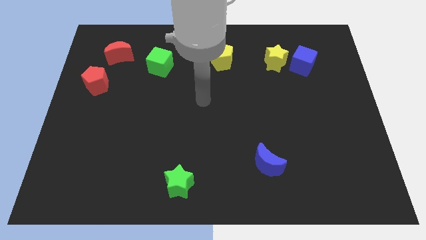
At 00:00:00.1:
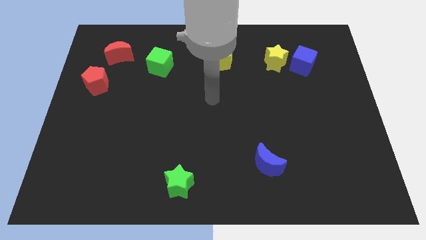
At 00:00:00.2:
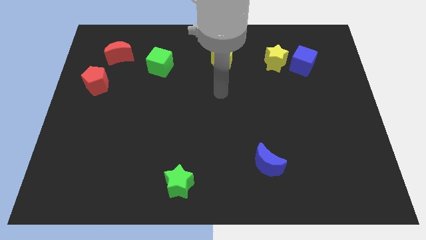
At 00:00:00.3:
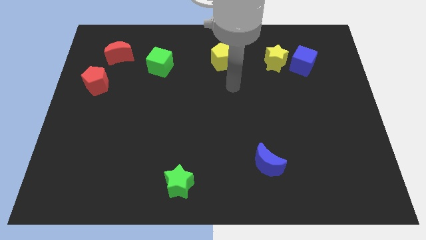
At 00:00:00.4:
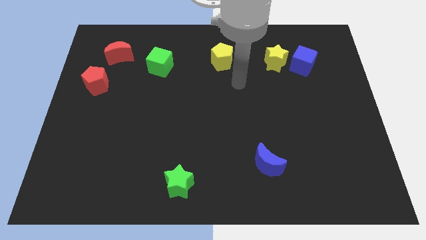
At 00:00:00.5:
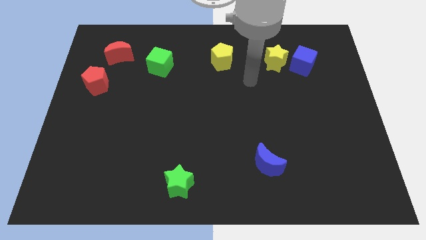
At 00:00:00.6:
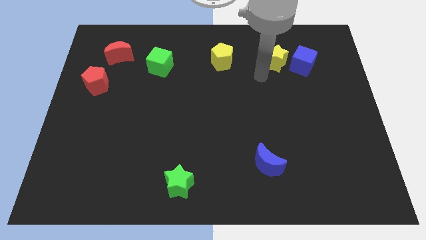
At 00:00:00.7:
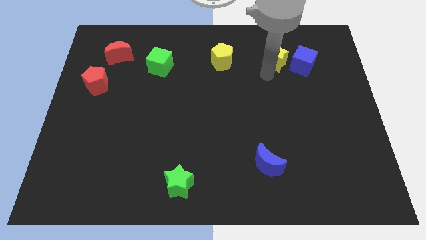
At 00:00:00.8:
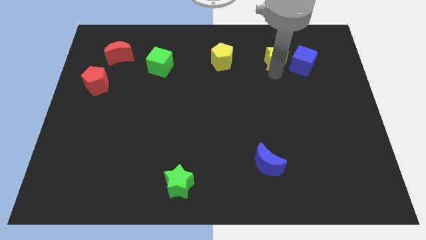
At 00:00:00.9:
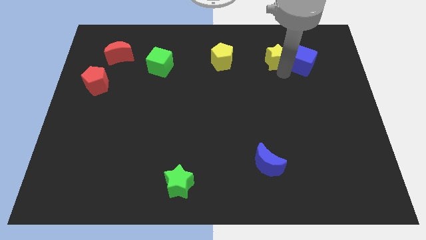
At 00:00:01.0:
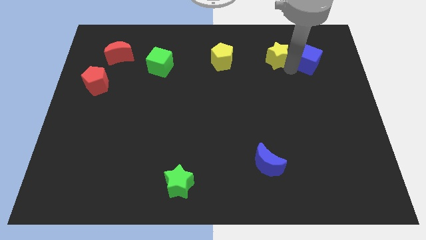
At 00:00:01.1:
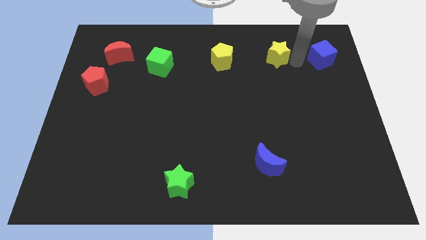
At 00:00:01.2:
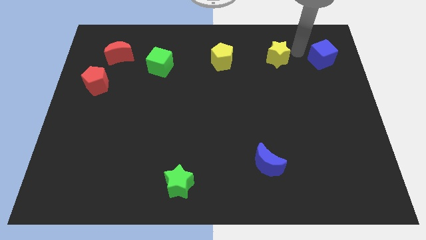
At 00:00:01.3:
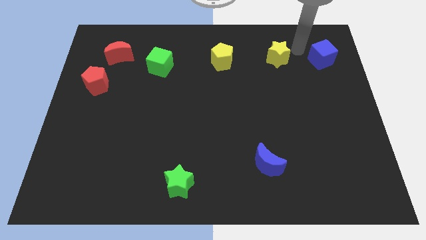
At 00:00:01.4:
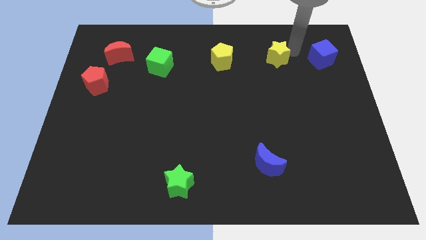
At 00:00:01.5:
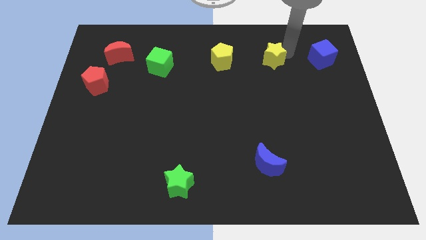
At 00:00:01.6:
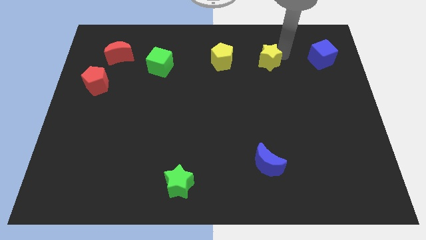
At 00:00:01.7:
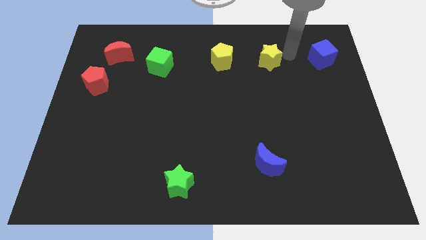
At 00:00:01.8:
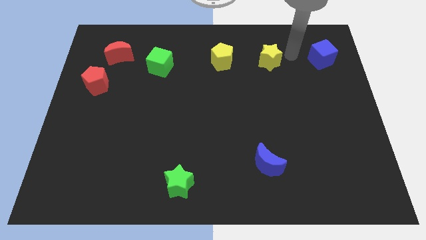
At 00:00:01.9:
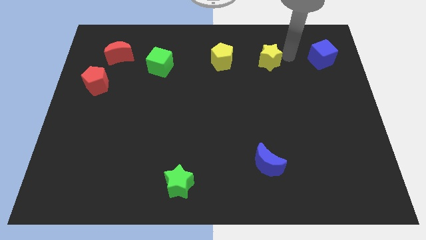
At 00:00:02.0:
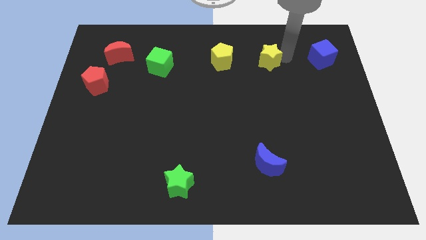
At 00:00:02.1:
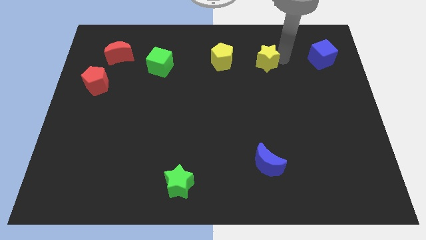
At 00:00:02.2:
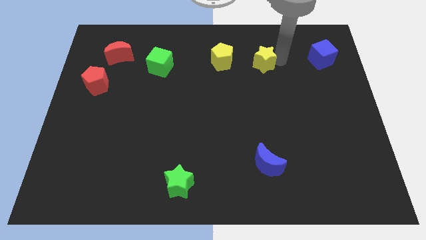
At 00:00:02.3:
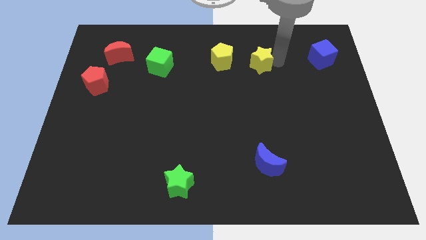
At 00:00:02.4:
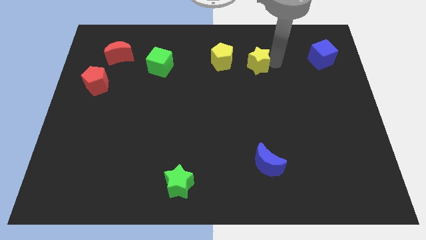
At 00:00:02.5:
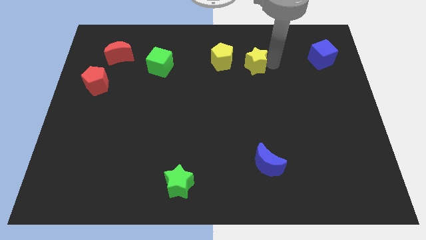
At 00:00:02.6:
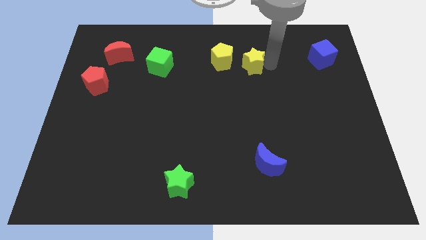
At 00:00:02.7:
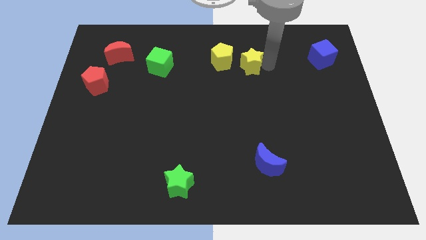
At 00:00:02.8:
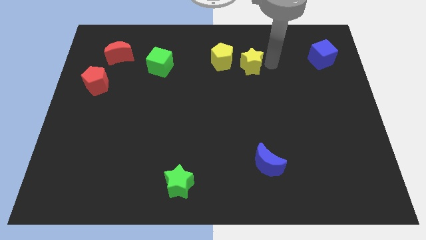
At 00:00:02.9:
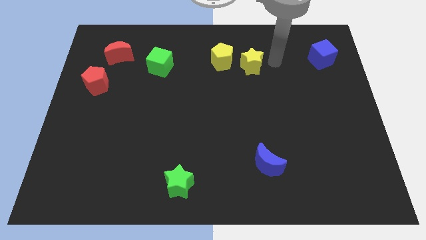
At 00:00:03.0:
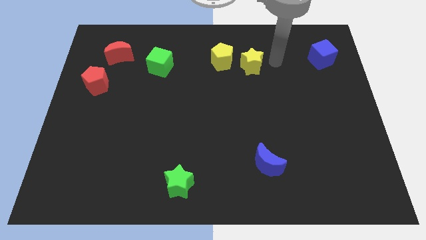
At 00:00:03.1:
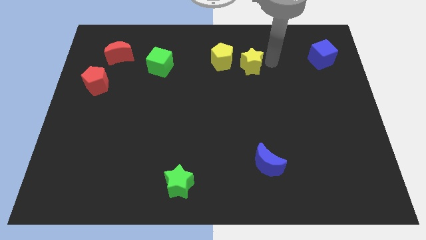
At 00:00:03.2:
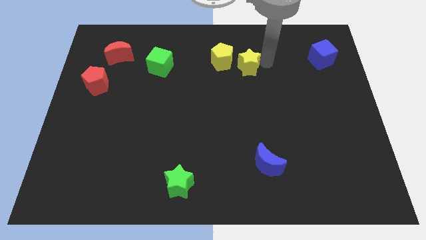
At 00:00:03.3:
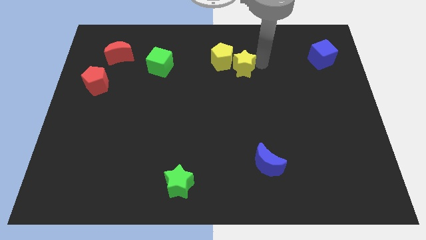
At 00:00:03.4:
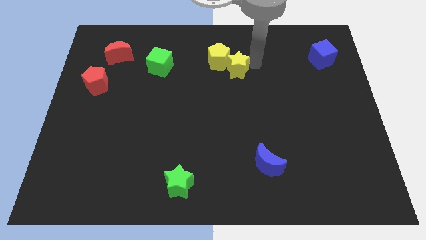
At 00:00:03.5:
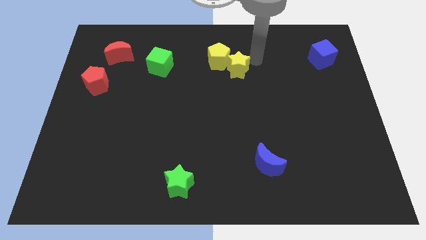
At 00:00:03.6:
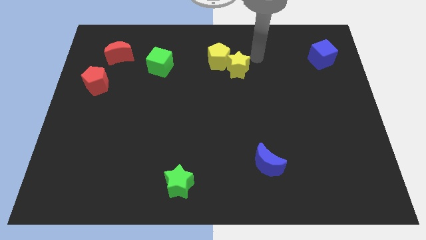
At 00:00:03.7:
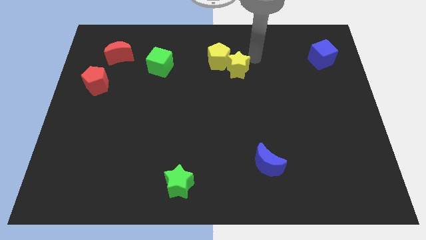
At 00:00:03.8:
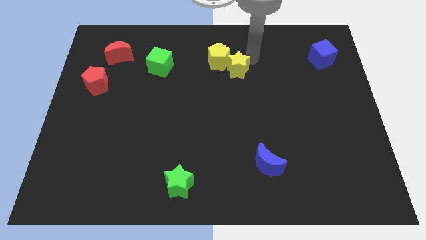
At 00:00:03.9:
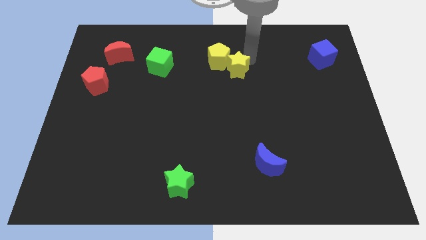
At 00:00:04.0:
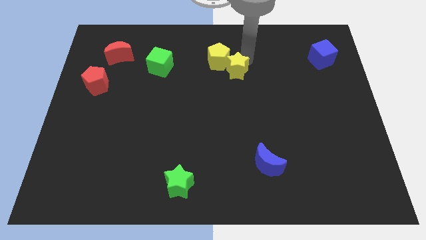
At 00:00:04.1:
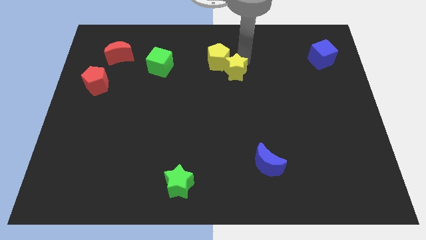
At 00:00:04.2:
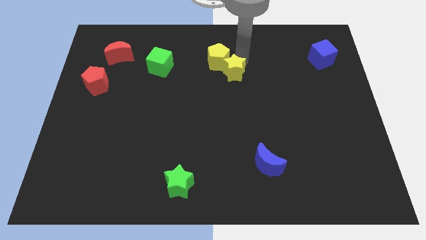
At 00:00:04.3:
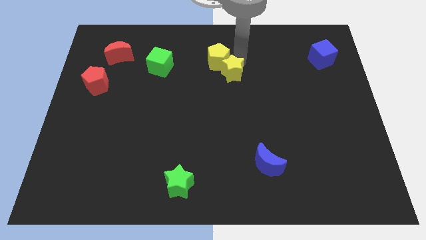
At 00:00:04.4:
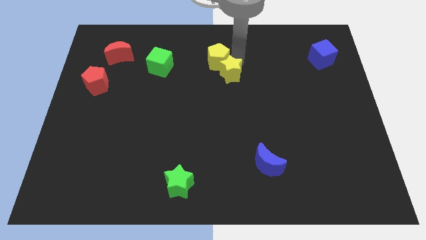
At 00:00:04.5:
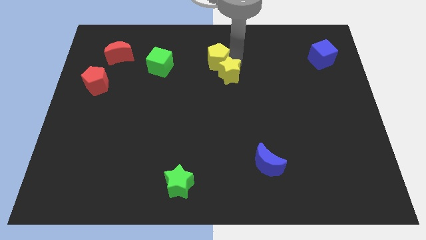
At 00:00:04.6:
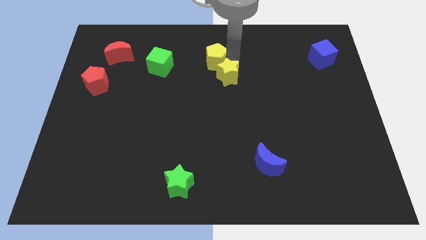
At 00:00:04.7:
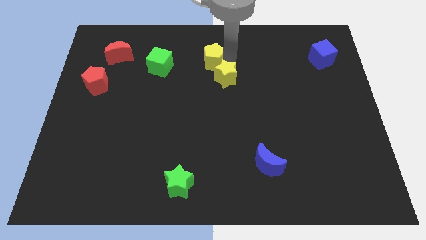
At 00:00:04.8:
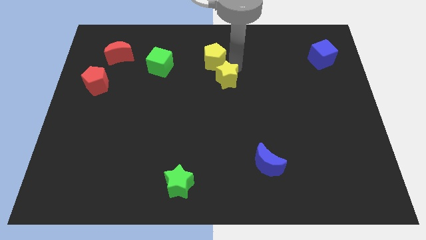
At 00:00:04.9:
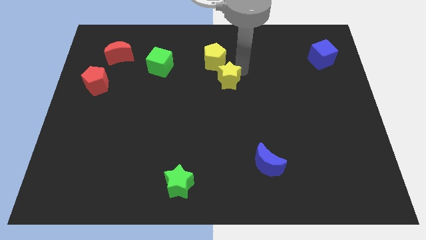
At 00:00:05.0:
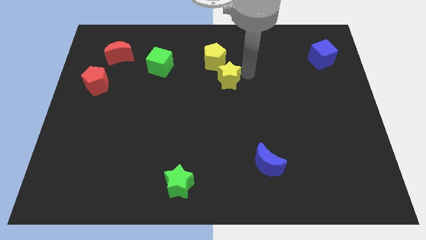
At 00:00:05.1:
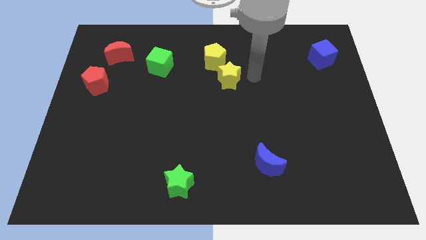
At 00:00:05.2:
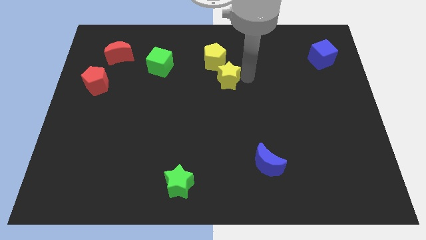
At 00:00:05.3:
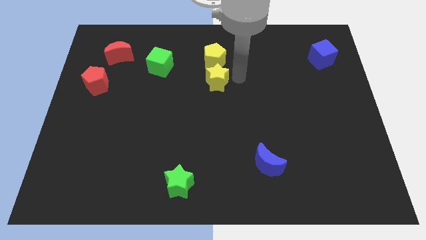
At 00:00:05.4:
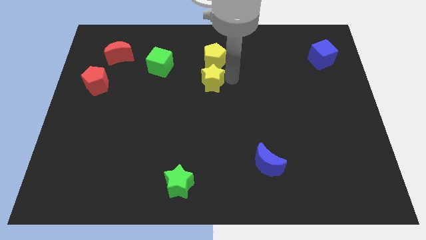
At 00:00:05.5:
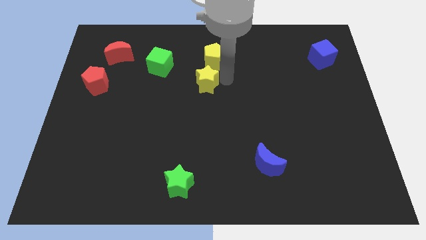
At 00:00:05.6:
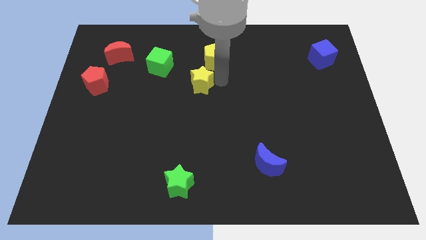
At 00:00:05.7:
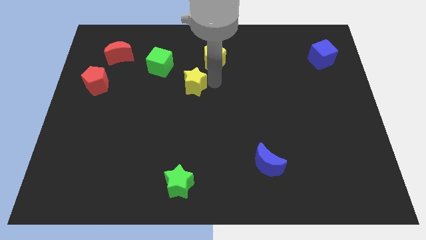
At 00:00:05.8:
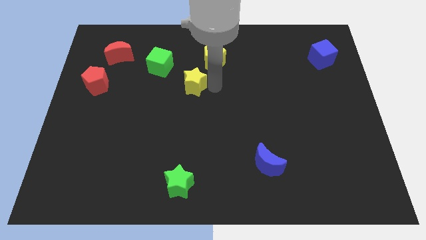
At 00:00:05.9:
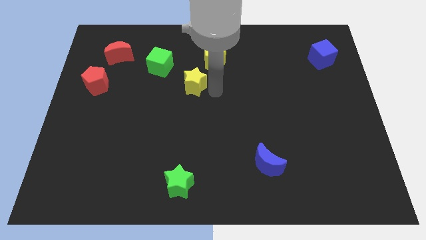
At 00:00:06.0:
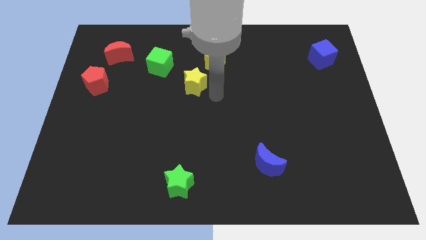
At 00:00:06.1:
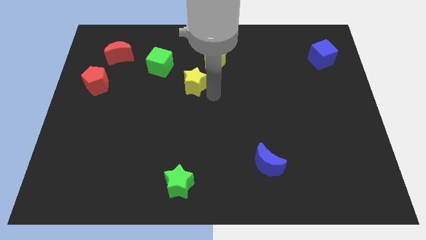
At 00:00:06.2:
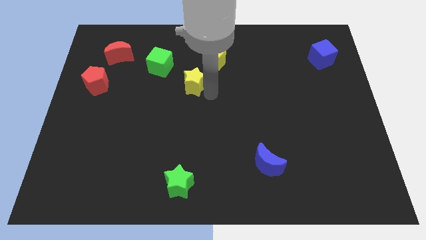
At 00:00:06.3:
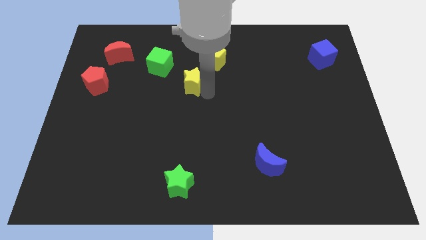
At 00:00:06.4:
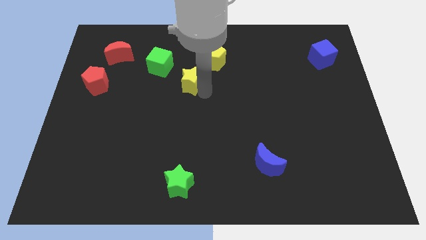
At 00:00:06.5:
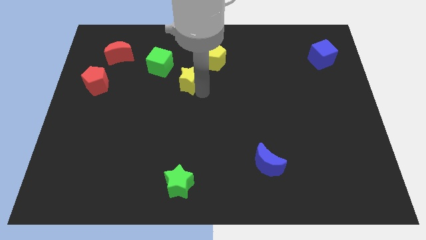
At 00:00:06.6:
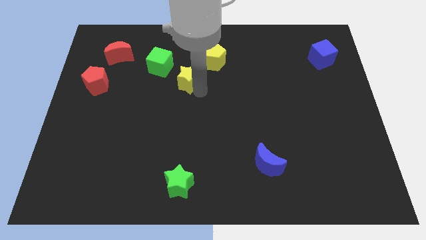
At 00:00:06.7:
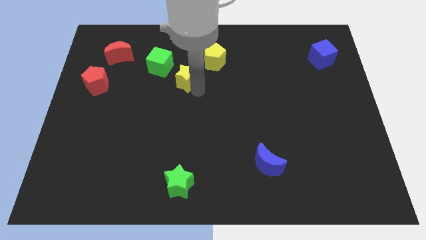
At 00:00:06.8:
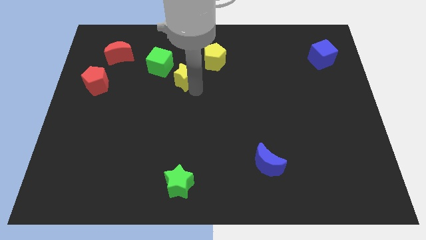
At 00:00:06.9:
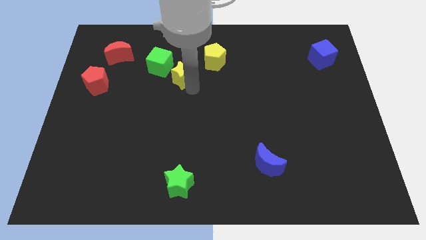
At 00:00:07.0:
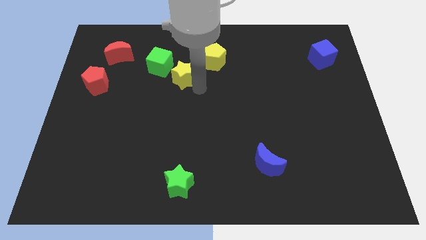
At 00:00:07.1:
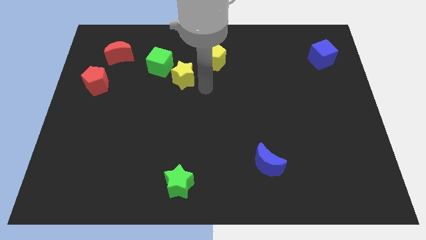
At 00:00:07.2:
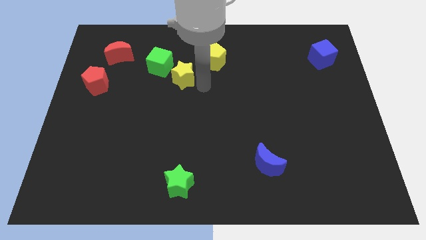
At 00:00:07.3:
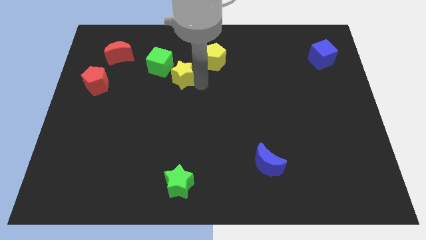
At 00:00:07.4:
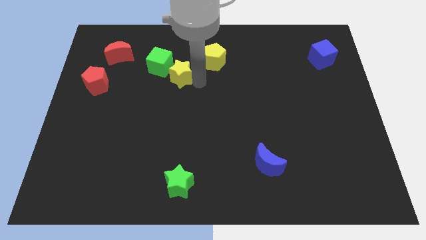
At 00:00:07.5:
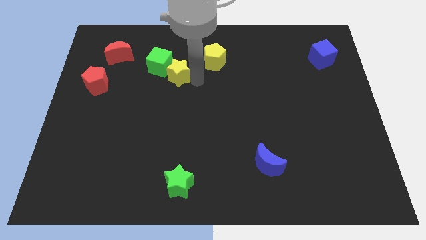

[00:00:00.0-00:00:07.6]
slide the yellow star next to the green cube

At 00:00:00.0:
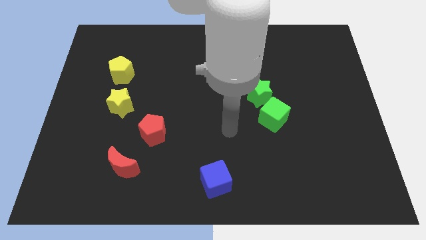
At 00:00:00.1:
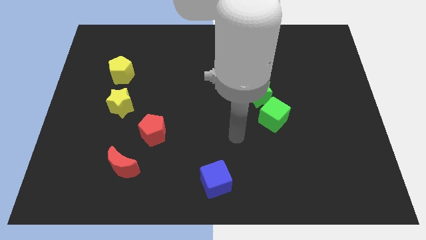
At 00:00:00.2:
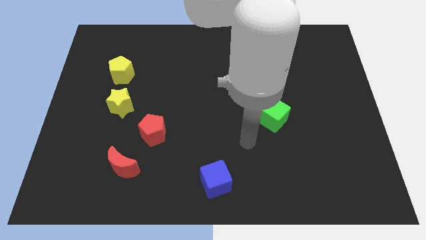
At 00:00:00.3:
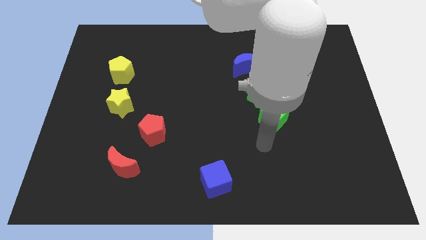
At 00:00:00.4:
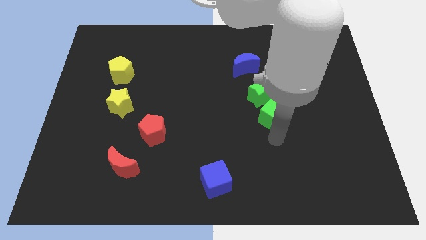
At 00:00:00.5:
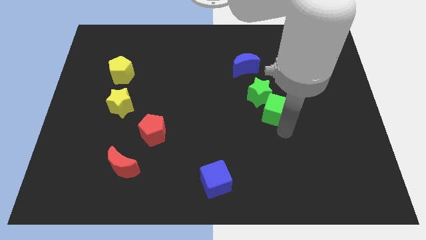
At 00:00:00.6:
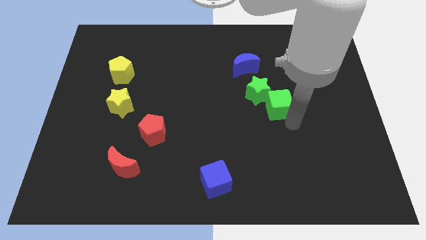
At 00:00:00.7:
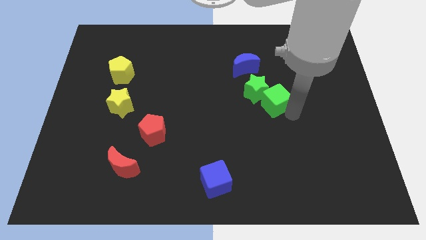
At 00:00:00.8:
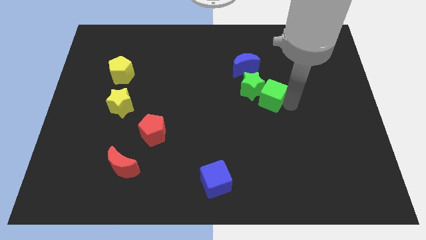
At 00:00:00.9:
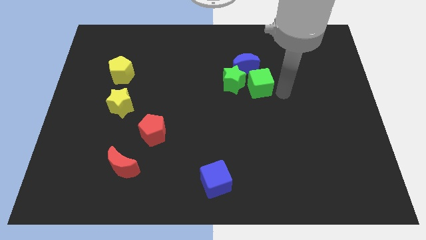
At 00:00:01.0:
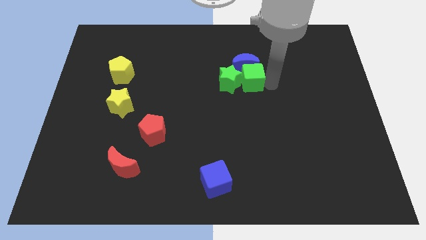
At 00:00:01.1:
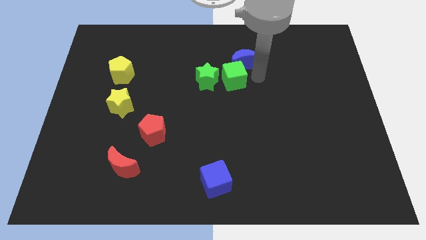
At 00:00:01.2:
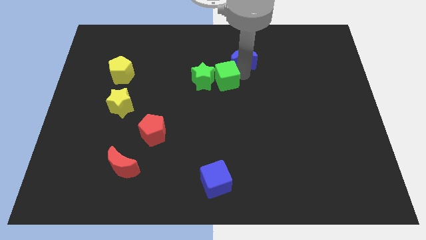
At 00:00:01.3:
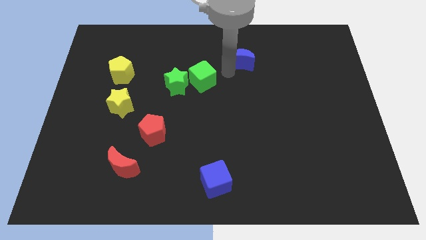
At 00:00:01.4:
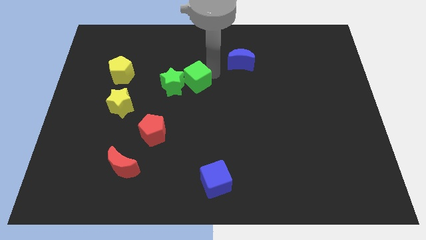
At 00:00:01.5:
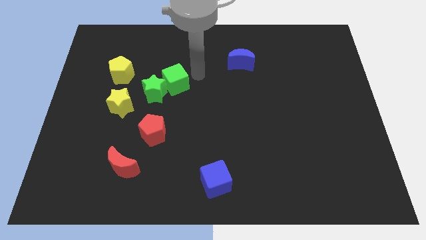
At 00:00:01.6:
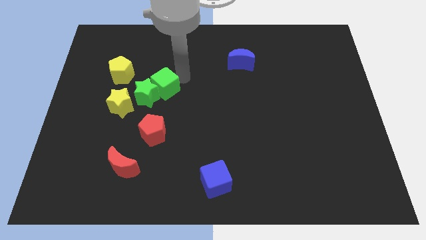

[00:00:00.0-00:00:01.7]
slide the green star towards the yellow star
